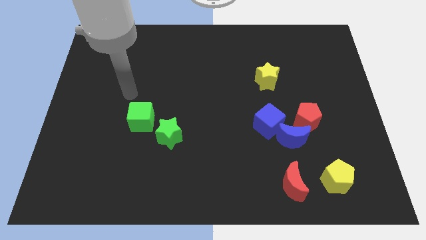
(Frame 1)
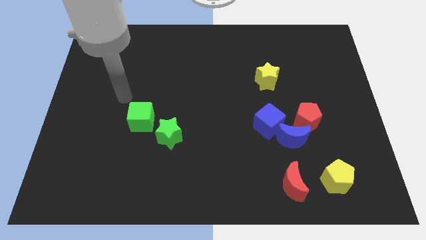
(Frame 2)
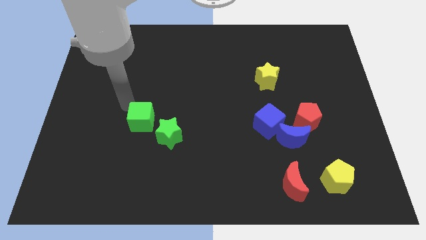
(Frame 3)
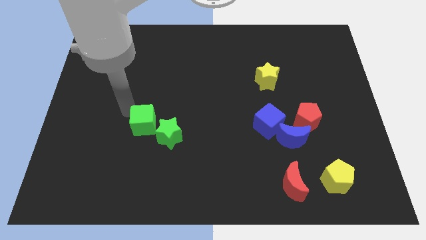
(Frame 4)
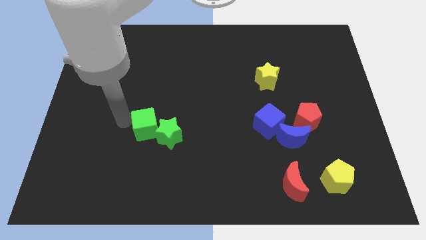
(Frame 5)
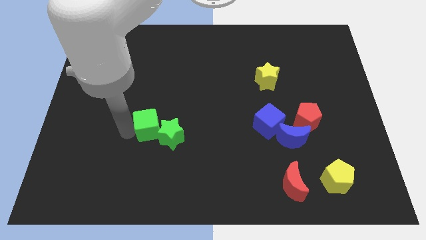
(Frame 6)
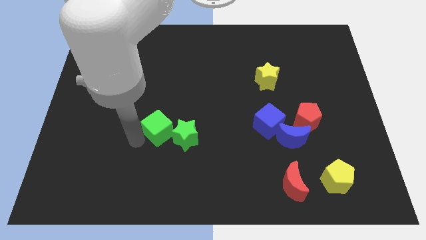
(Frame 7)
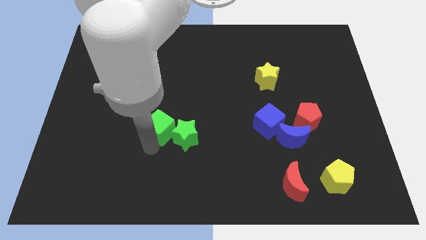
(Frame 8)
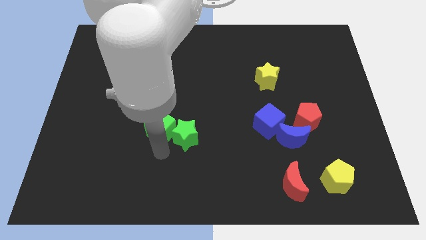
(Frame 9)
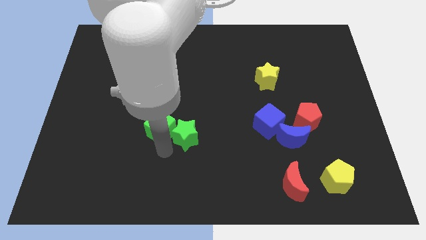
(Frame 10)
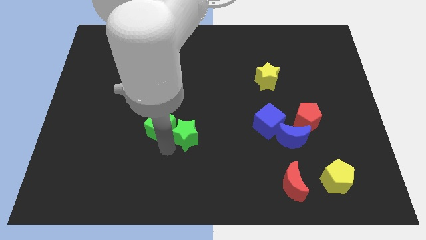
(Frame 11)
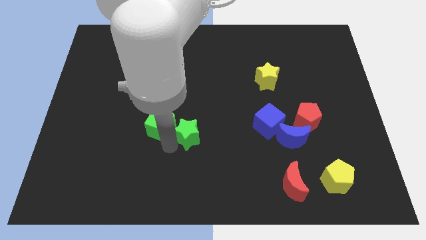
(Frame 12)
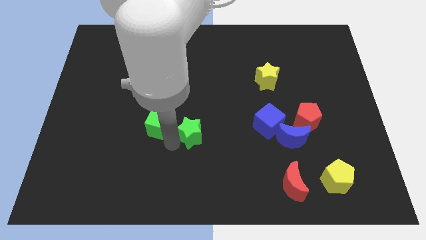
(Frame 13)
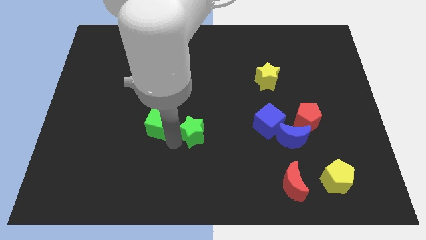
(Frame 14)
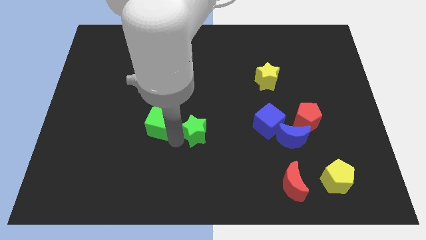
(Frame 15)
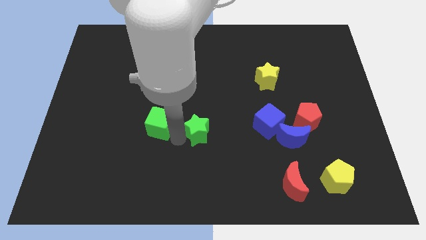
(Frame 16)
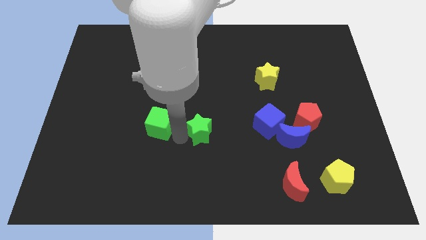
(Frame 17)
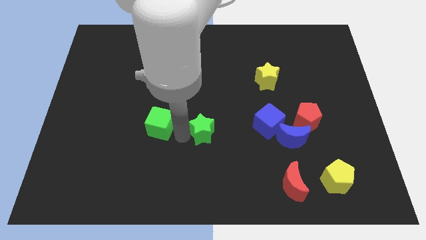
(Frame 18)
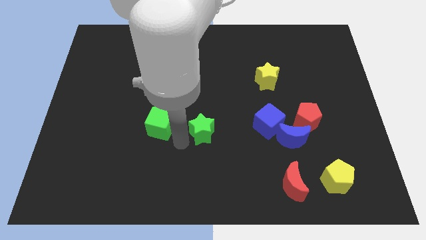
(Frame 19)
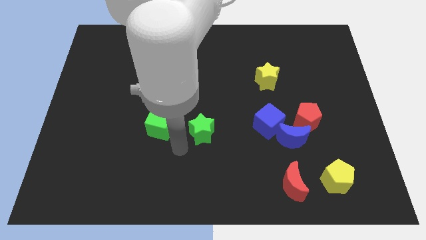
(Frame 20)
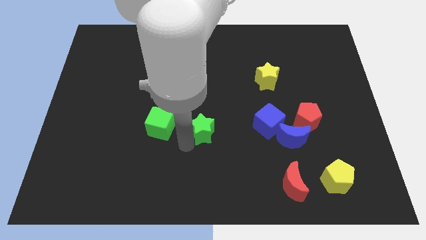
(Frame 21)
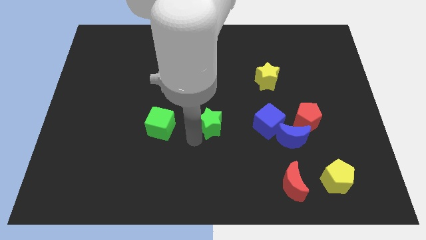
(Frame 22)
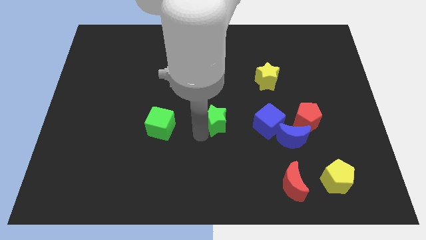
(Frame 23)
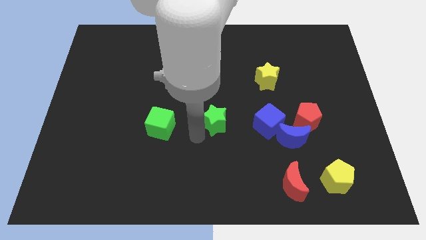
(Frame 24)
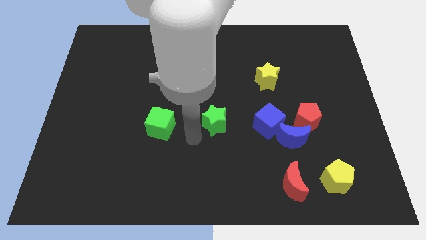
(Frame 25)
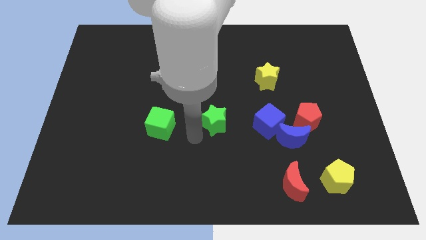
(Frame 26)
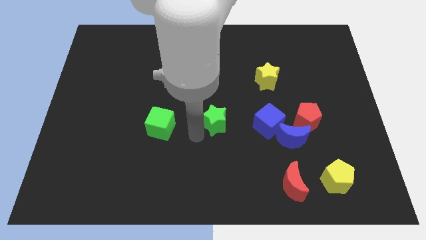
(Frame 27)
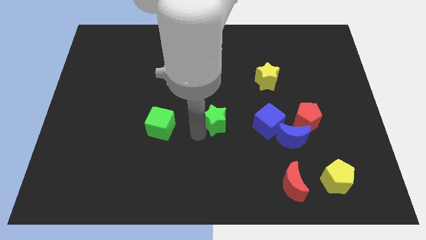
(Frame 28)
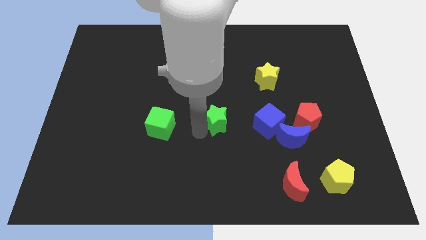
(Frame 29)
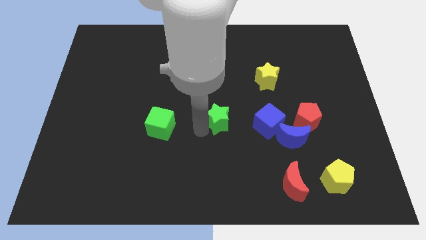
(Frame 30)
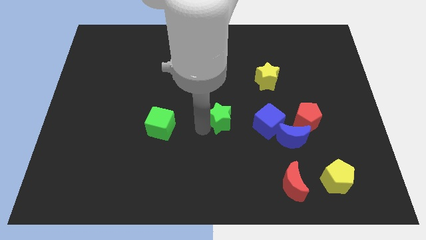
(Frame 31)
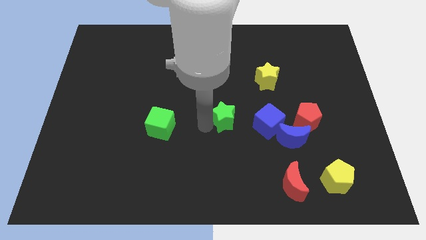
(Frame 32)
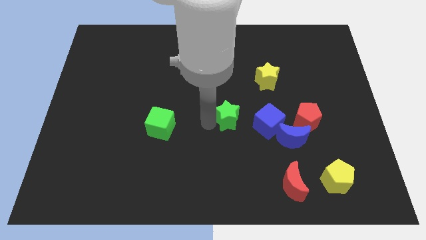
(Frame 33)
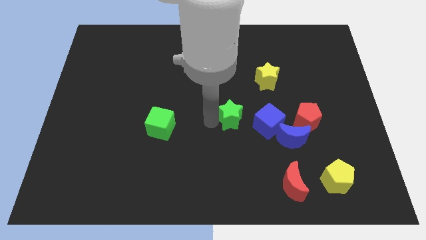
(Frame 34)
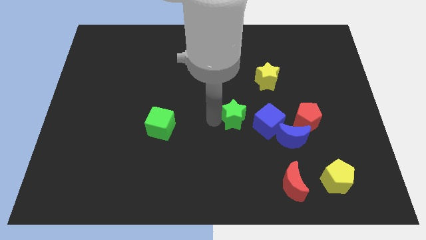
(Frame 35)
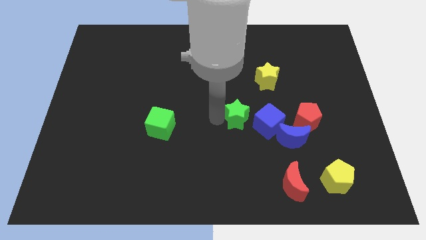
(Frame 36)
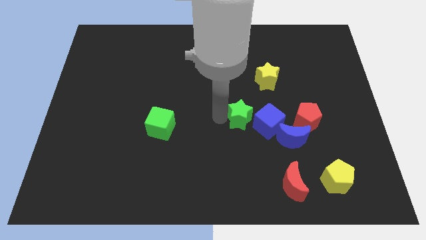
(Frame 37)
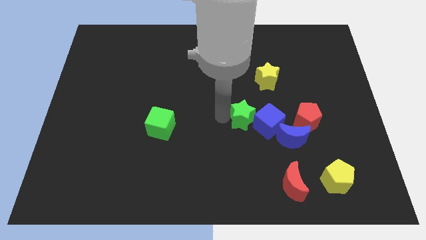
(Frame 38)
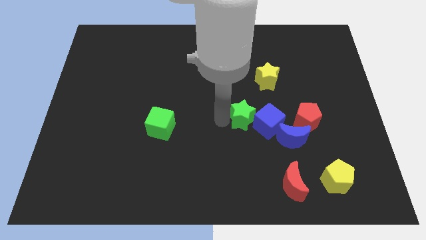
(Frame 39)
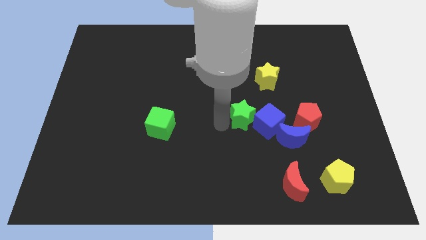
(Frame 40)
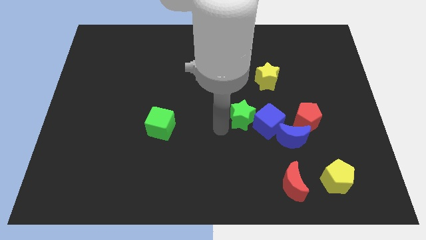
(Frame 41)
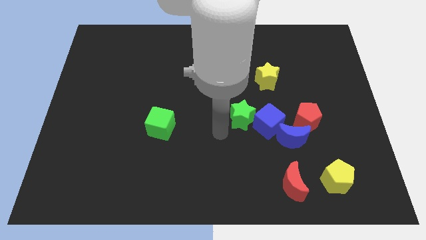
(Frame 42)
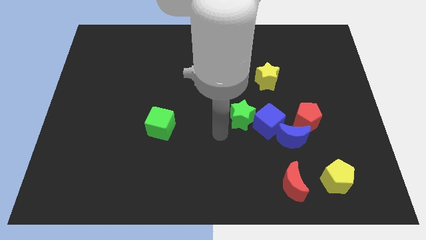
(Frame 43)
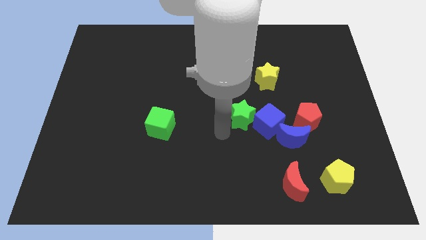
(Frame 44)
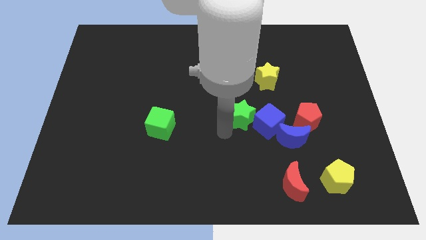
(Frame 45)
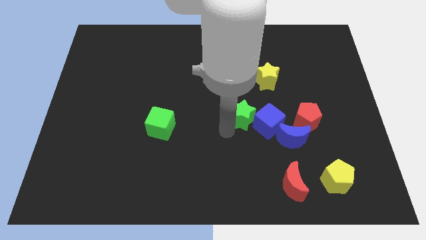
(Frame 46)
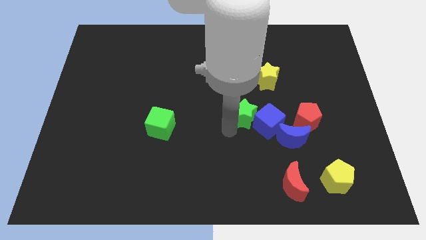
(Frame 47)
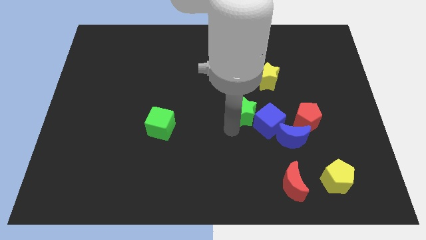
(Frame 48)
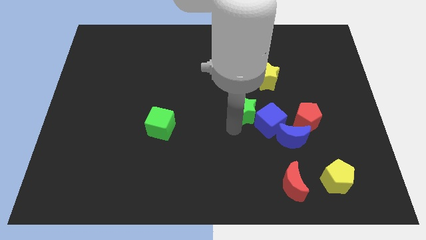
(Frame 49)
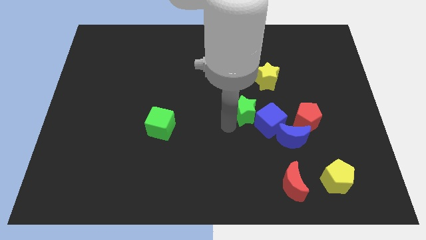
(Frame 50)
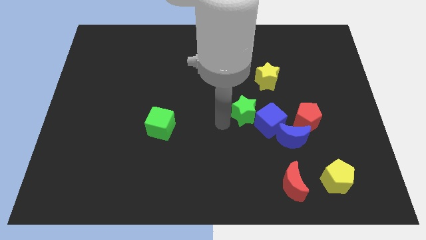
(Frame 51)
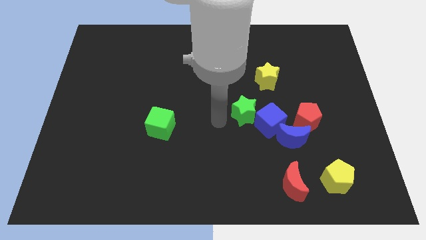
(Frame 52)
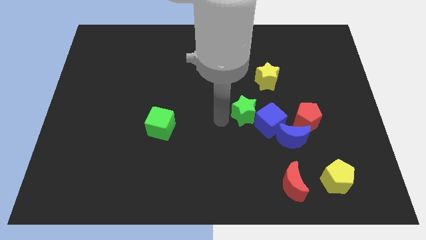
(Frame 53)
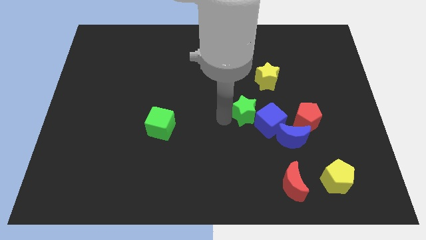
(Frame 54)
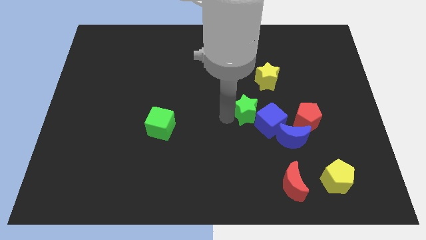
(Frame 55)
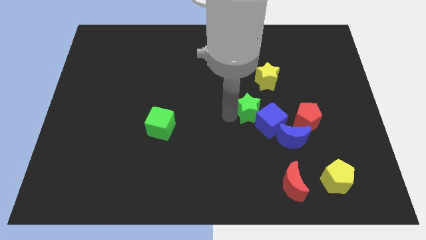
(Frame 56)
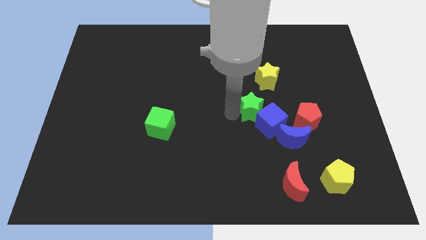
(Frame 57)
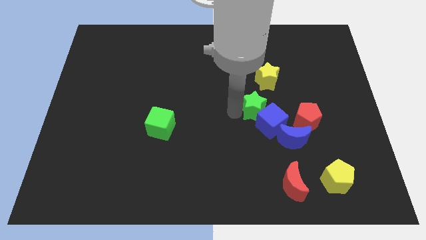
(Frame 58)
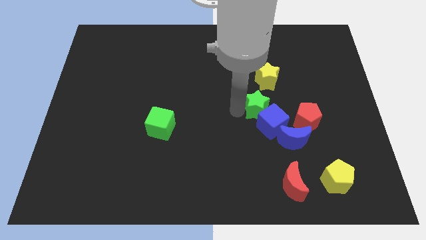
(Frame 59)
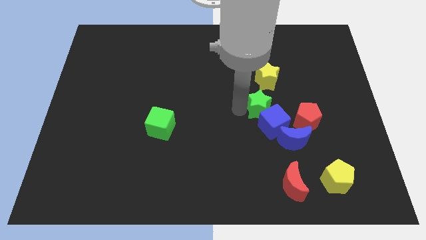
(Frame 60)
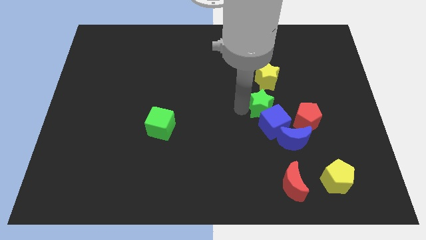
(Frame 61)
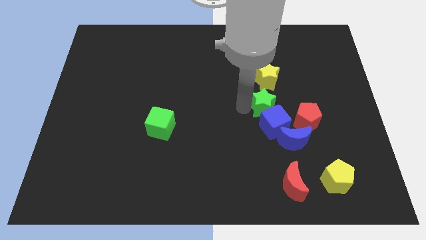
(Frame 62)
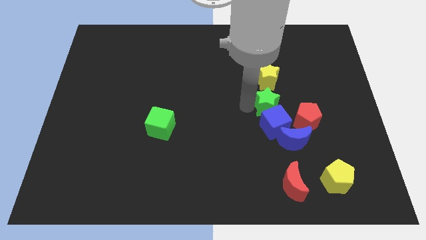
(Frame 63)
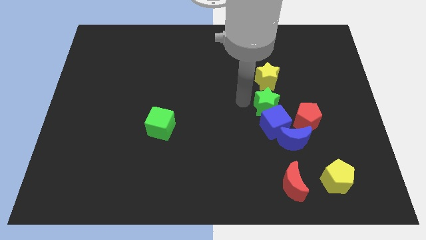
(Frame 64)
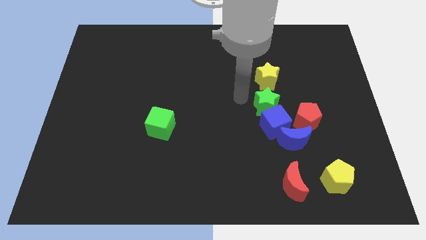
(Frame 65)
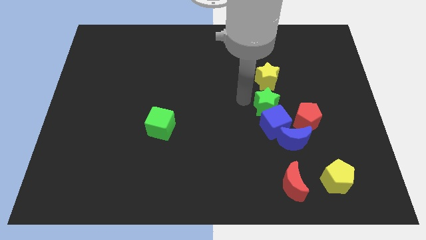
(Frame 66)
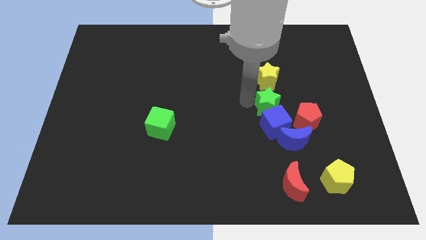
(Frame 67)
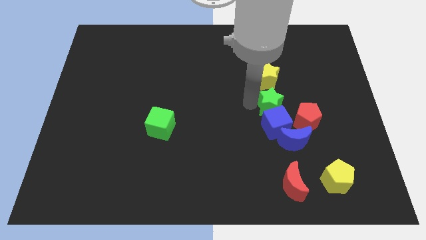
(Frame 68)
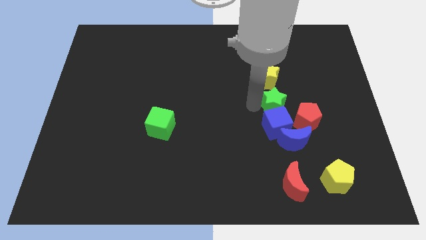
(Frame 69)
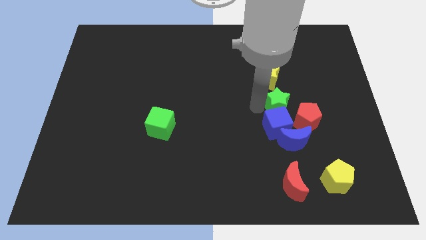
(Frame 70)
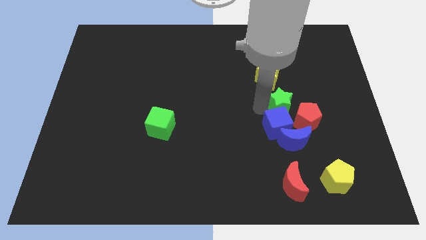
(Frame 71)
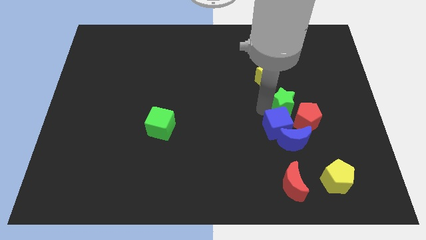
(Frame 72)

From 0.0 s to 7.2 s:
push the green star towards the red pentagon

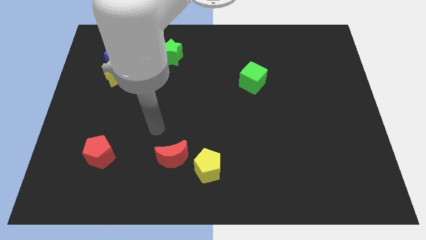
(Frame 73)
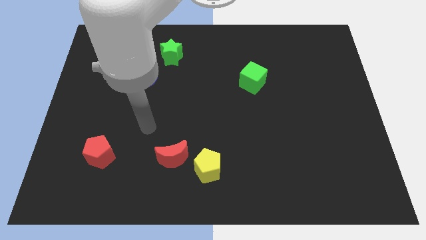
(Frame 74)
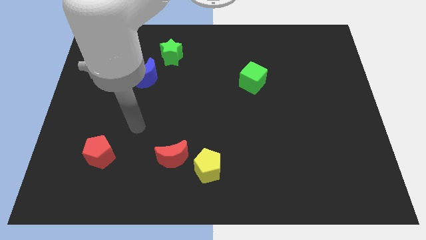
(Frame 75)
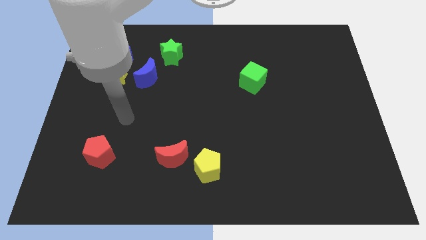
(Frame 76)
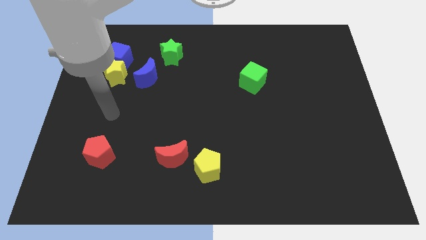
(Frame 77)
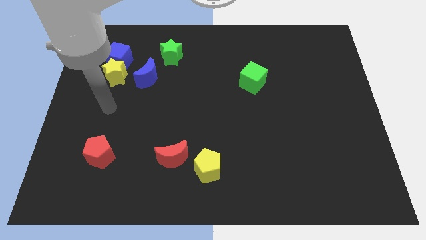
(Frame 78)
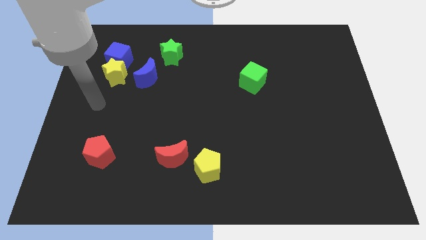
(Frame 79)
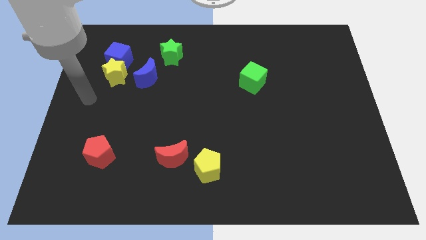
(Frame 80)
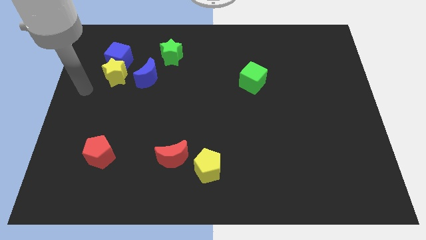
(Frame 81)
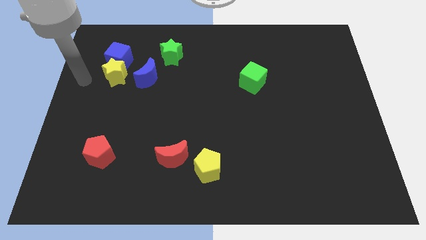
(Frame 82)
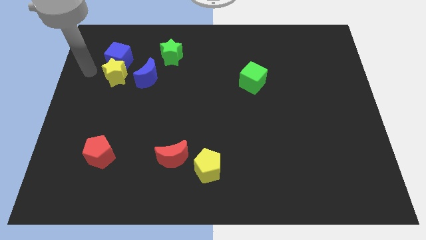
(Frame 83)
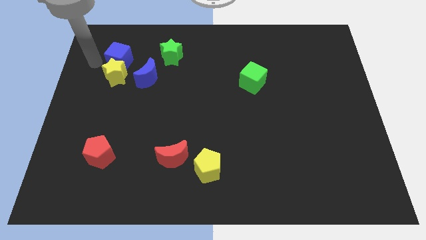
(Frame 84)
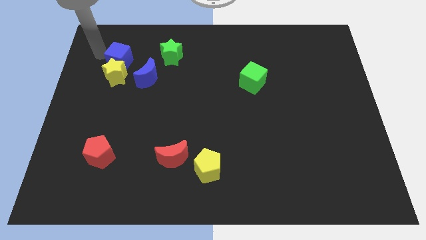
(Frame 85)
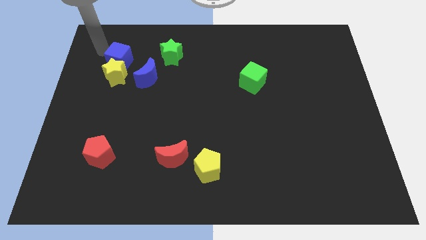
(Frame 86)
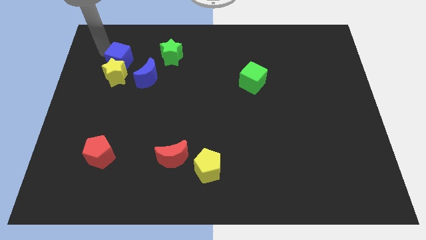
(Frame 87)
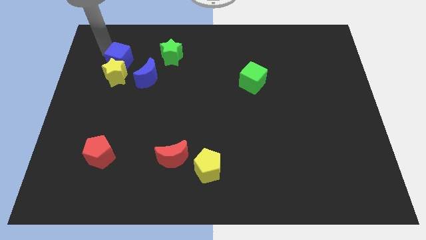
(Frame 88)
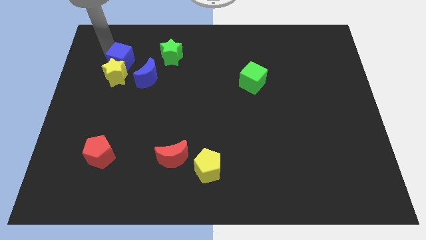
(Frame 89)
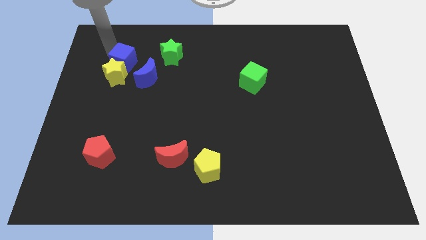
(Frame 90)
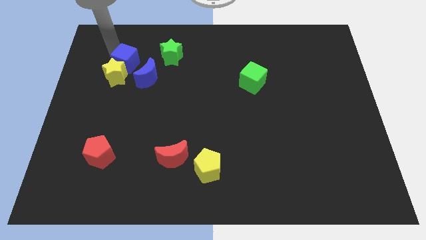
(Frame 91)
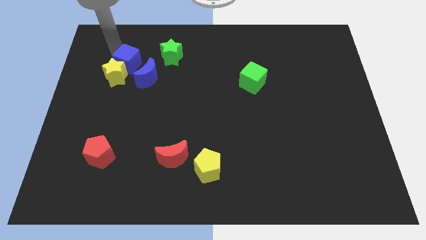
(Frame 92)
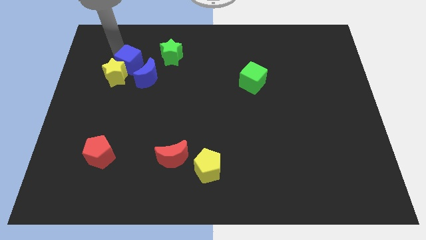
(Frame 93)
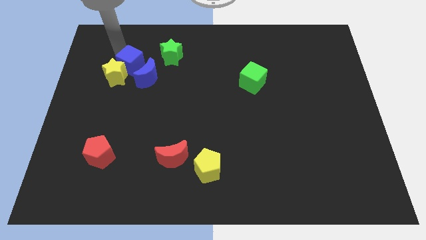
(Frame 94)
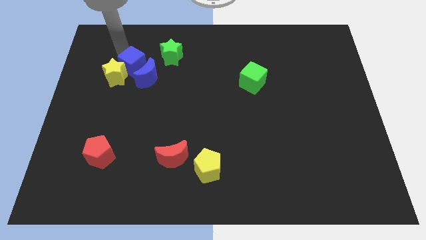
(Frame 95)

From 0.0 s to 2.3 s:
slide the blue cube to the blue moon
